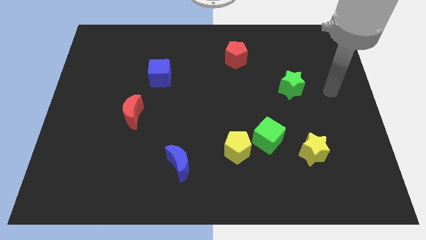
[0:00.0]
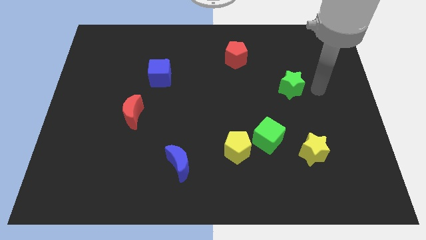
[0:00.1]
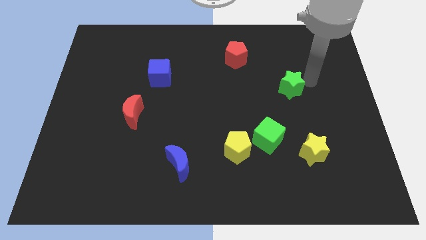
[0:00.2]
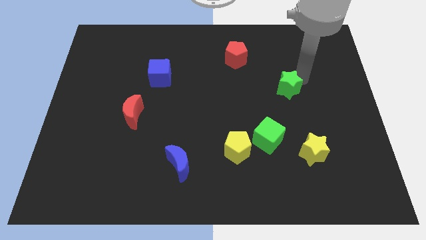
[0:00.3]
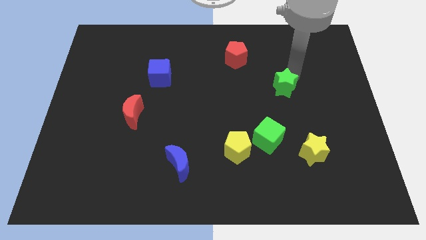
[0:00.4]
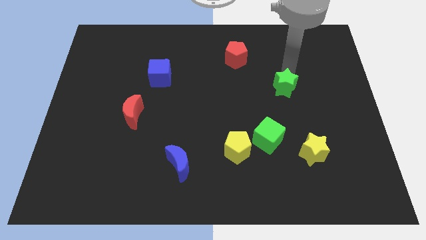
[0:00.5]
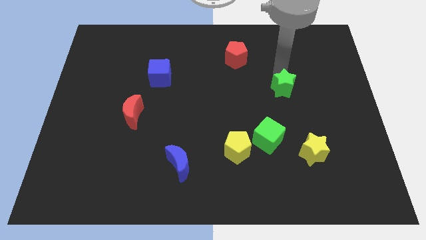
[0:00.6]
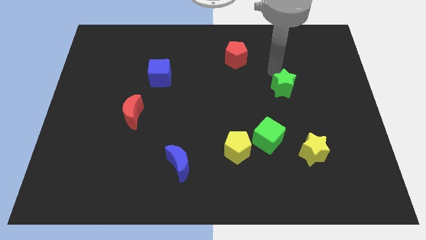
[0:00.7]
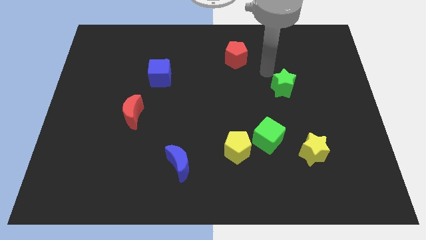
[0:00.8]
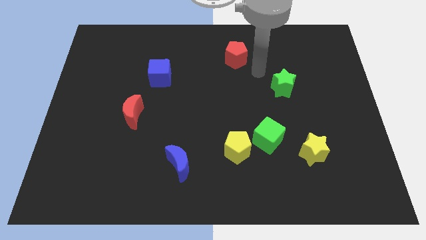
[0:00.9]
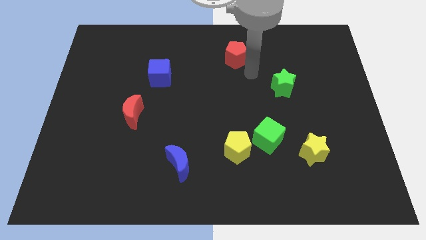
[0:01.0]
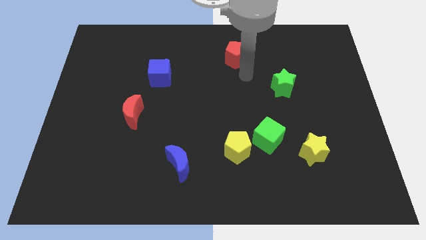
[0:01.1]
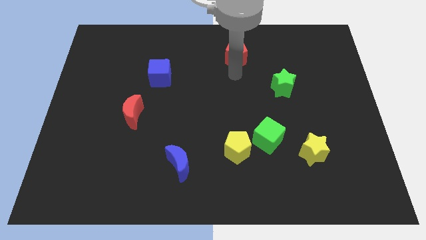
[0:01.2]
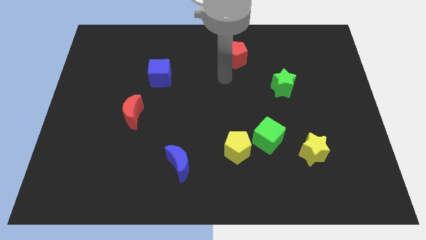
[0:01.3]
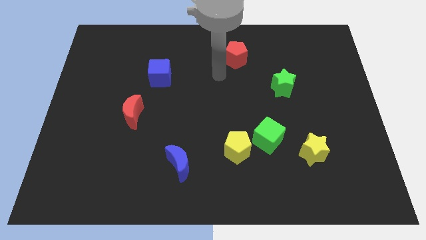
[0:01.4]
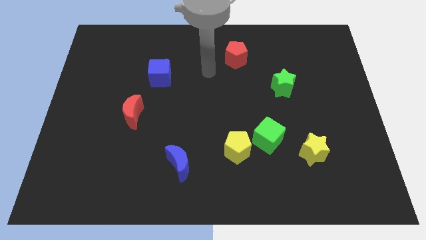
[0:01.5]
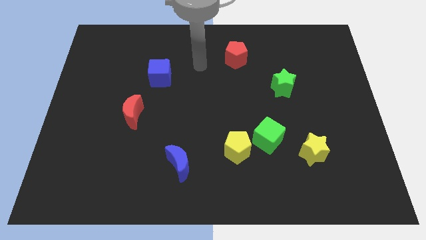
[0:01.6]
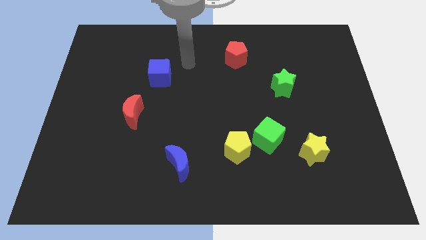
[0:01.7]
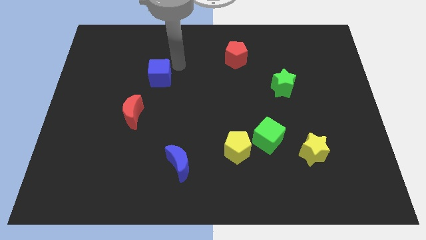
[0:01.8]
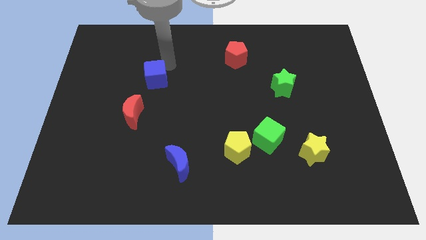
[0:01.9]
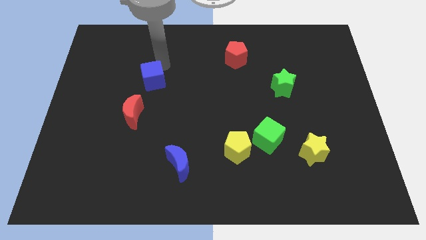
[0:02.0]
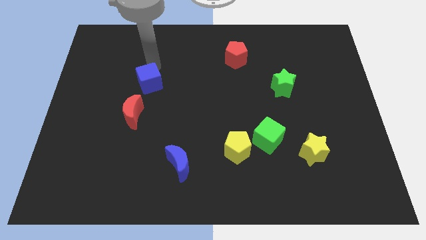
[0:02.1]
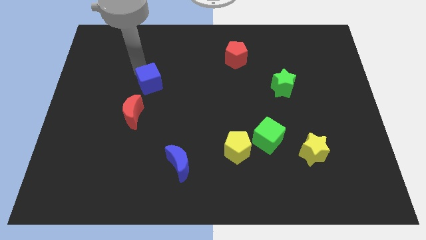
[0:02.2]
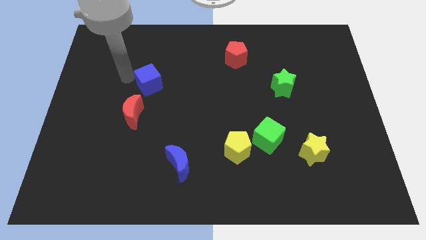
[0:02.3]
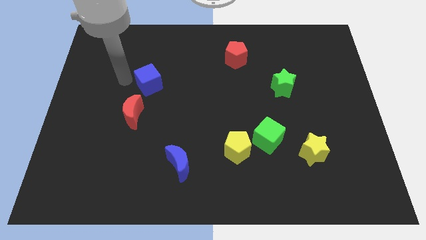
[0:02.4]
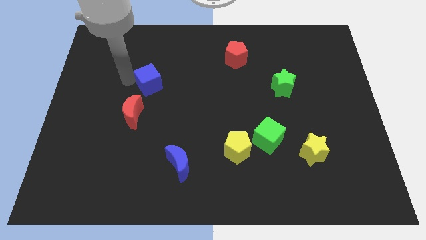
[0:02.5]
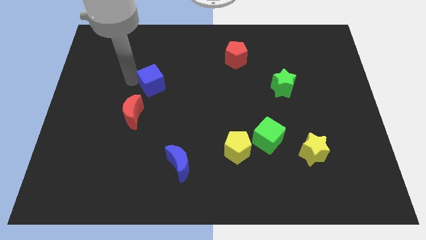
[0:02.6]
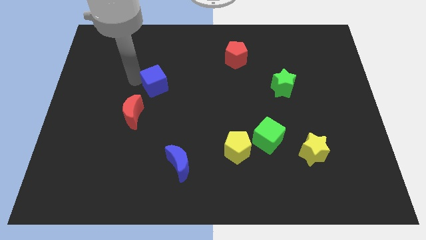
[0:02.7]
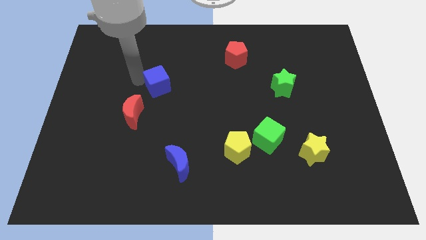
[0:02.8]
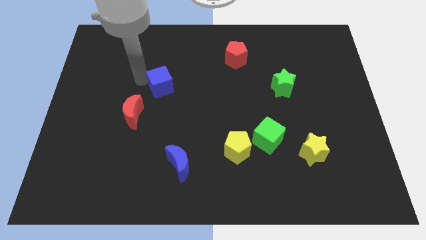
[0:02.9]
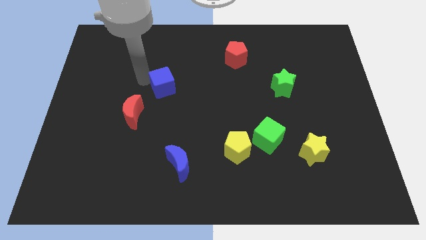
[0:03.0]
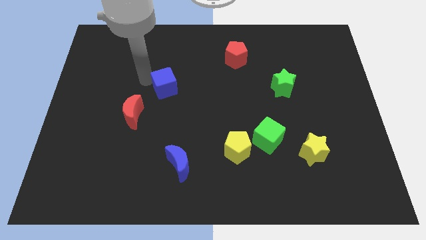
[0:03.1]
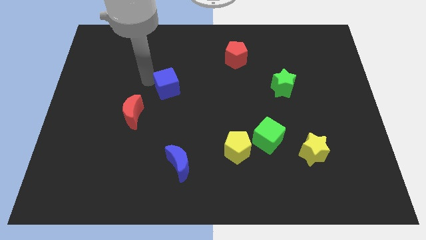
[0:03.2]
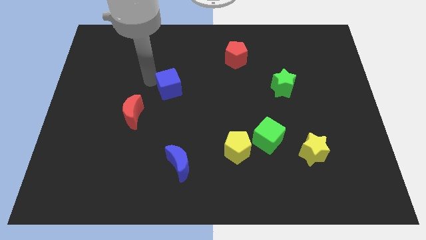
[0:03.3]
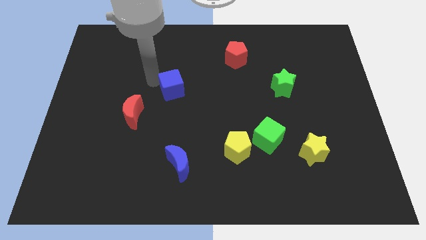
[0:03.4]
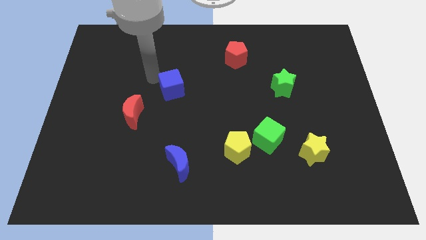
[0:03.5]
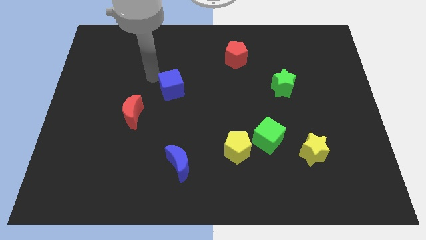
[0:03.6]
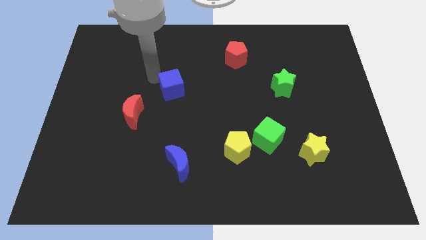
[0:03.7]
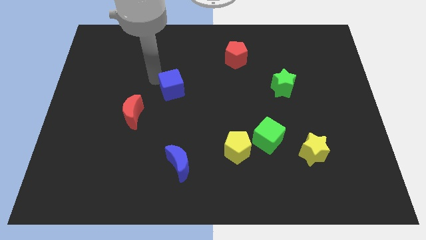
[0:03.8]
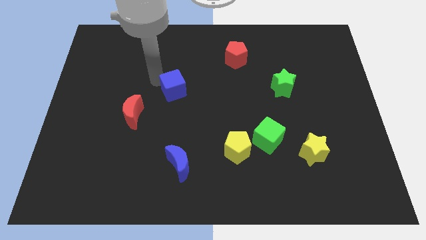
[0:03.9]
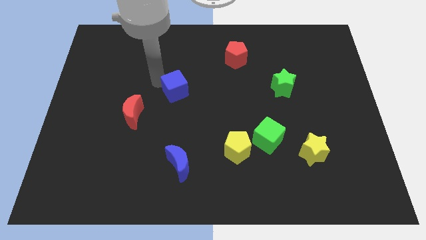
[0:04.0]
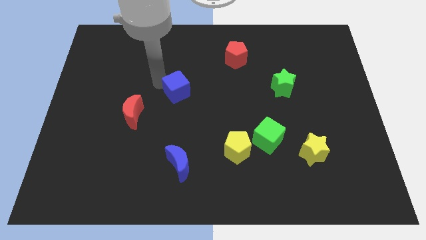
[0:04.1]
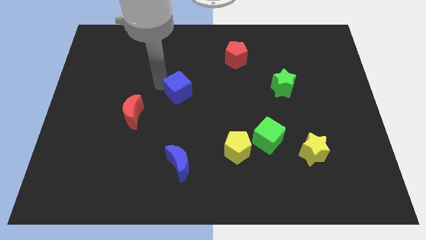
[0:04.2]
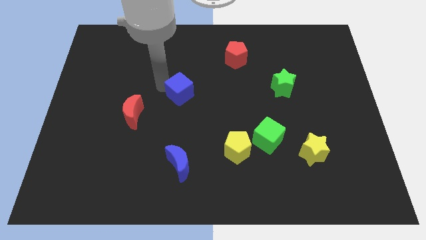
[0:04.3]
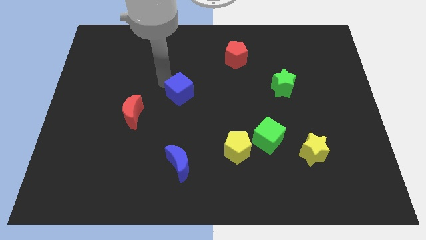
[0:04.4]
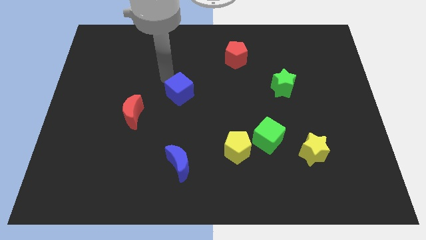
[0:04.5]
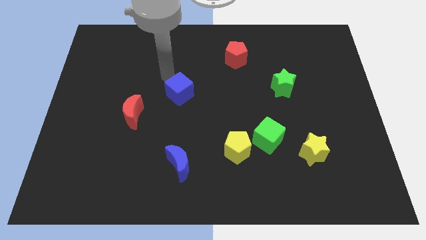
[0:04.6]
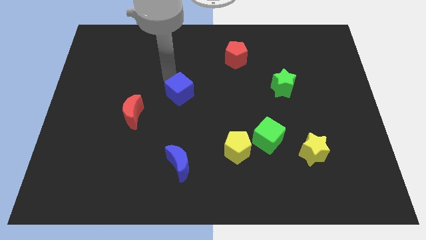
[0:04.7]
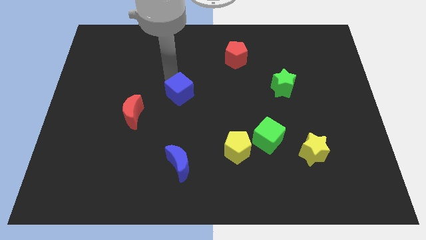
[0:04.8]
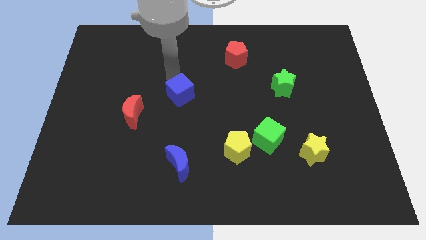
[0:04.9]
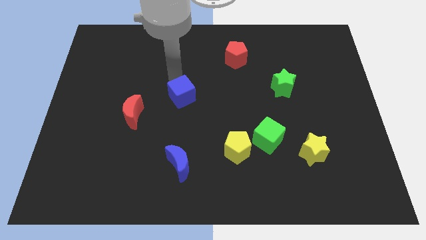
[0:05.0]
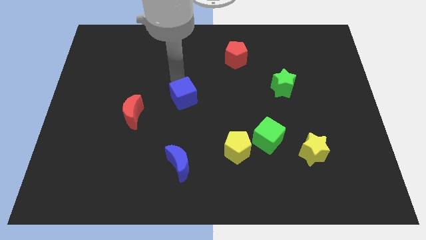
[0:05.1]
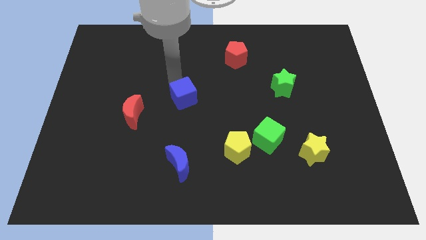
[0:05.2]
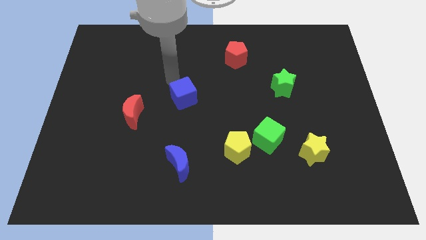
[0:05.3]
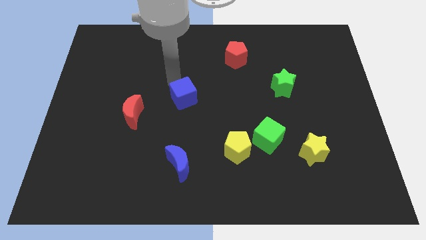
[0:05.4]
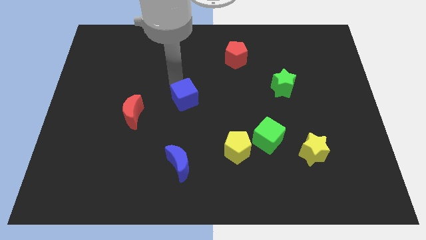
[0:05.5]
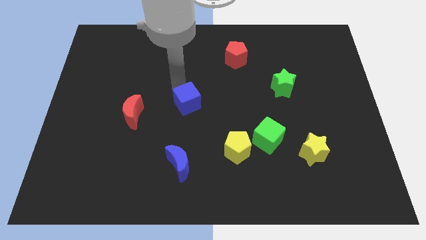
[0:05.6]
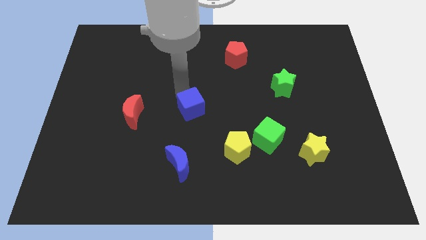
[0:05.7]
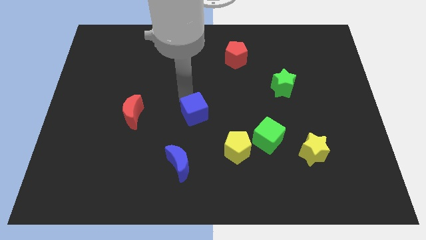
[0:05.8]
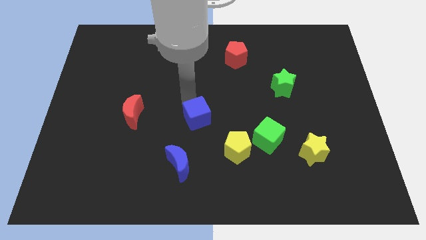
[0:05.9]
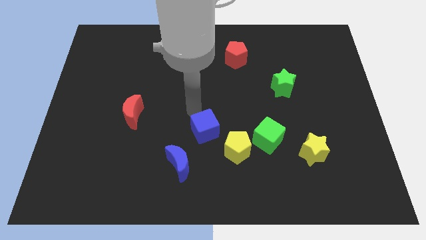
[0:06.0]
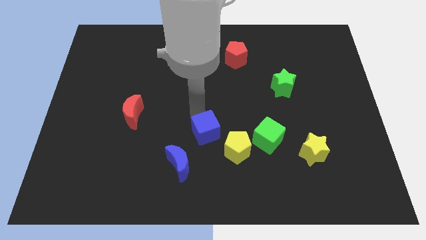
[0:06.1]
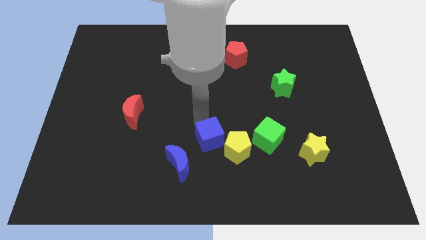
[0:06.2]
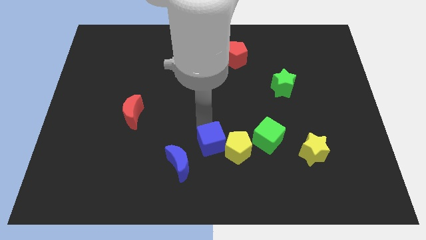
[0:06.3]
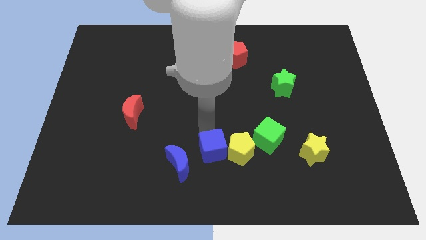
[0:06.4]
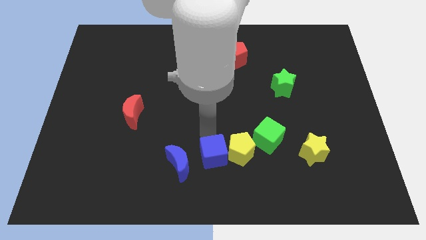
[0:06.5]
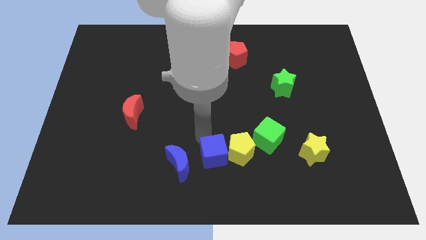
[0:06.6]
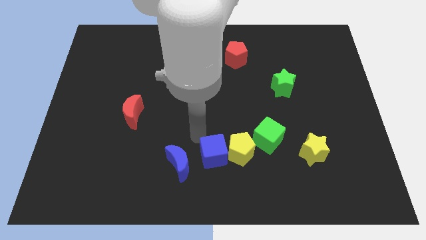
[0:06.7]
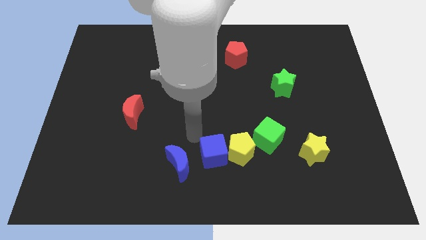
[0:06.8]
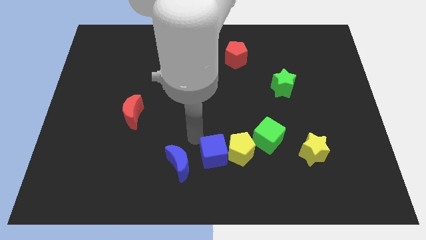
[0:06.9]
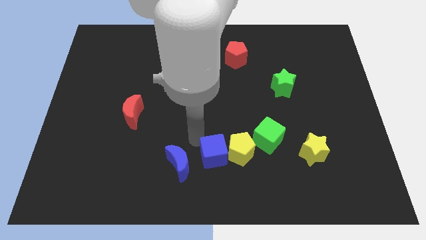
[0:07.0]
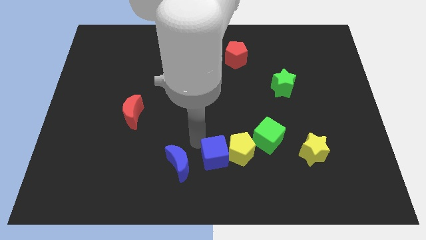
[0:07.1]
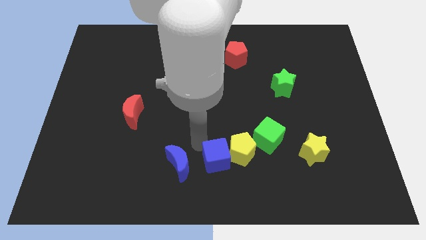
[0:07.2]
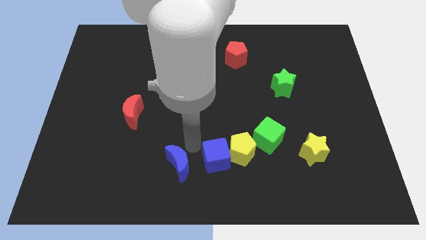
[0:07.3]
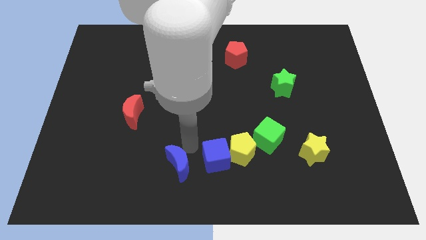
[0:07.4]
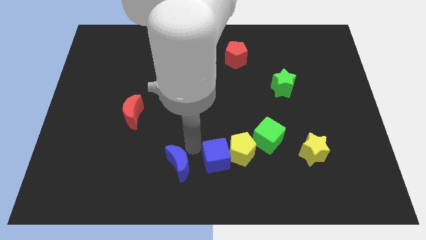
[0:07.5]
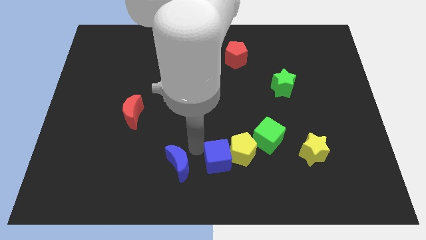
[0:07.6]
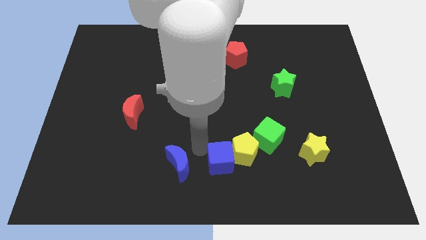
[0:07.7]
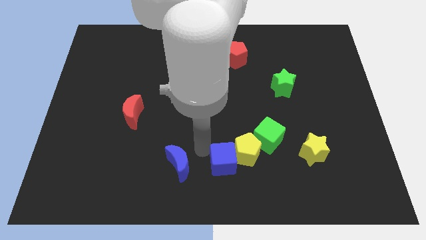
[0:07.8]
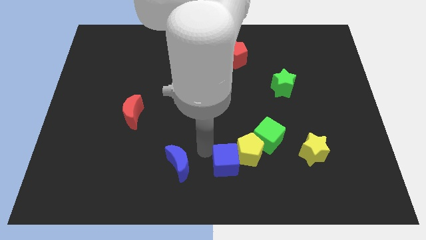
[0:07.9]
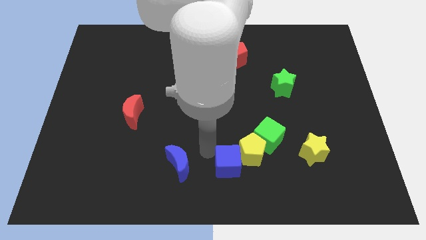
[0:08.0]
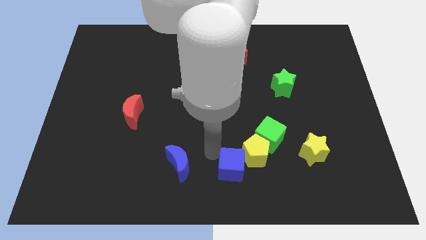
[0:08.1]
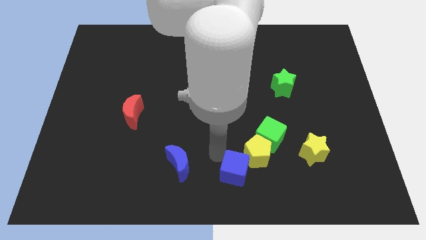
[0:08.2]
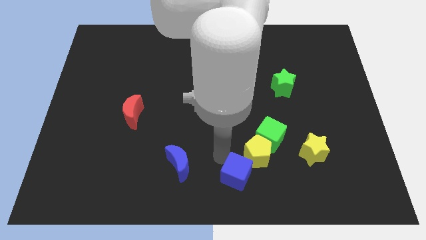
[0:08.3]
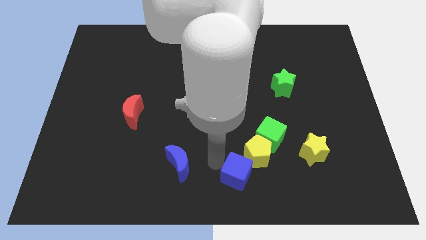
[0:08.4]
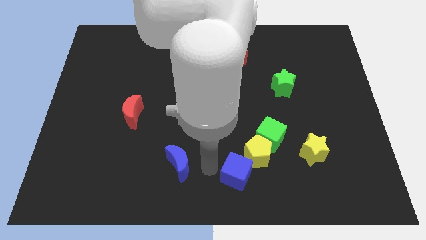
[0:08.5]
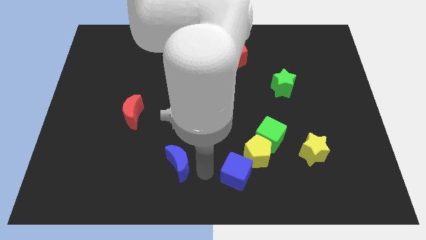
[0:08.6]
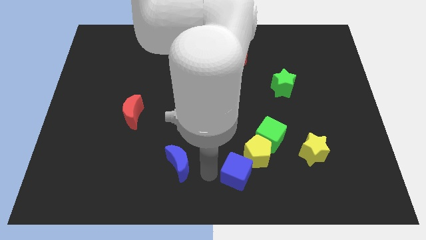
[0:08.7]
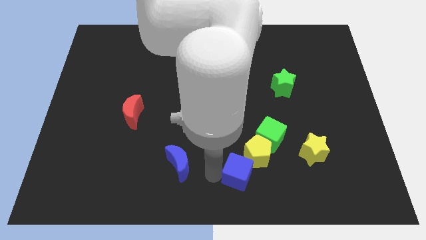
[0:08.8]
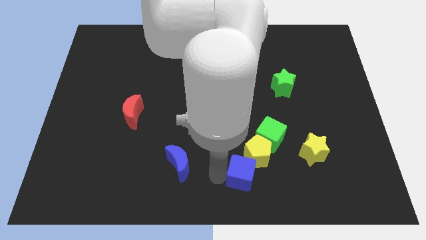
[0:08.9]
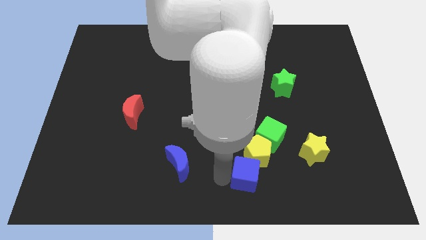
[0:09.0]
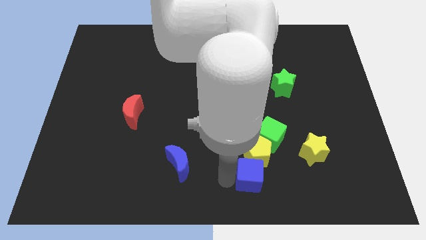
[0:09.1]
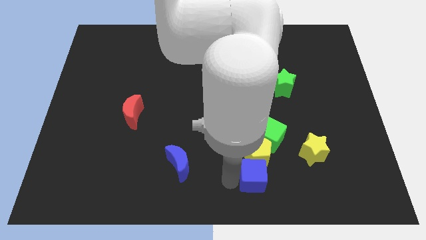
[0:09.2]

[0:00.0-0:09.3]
slide the blue cube to the bottom right side of the yellow pentagon
